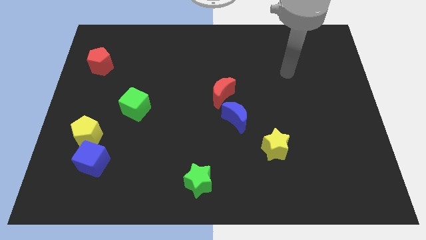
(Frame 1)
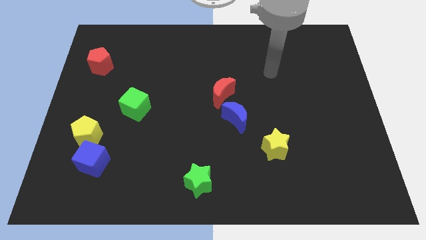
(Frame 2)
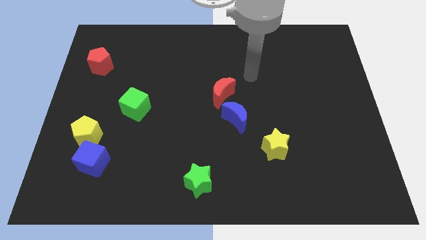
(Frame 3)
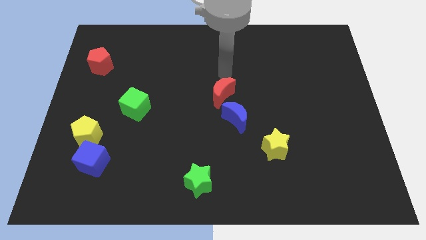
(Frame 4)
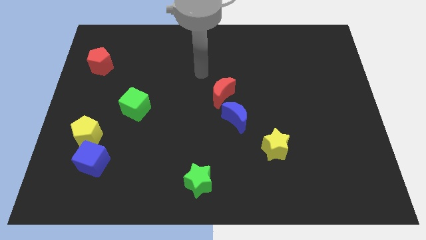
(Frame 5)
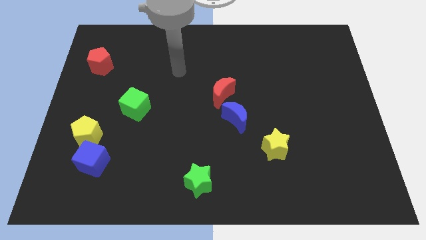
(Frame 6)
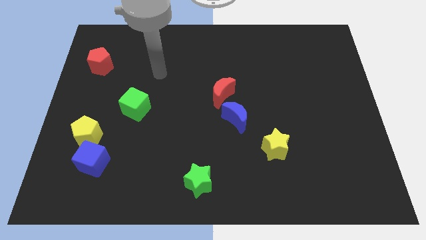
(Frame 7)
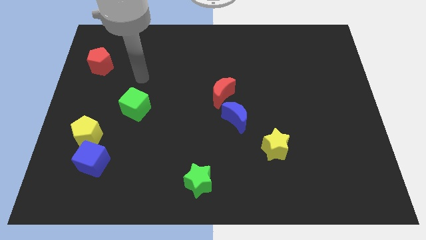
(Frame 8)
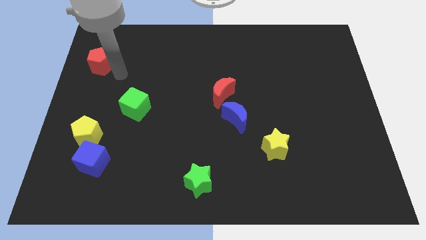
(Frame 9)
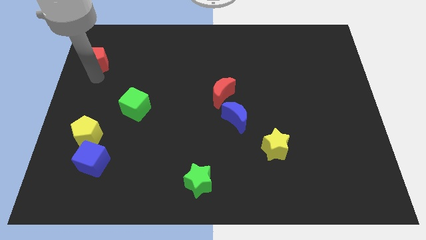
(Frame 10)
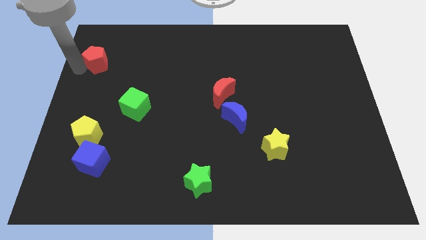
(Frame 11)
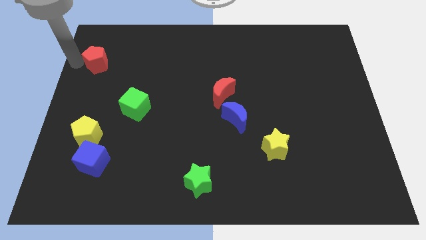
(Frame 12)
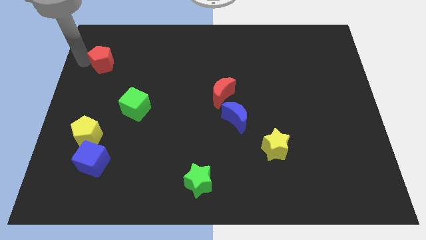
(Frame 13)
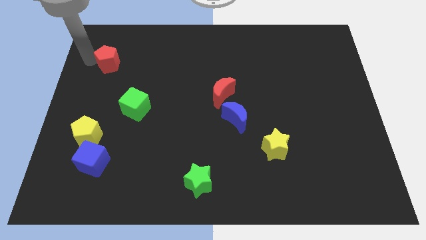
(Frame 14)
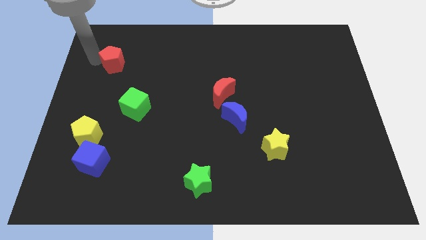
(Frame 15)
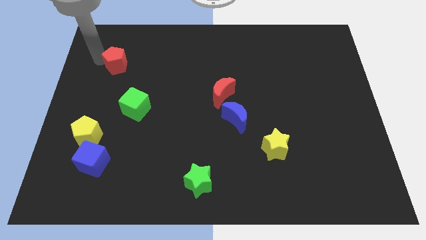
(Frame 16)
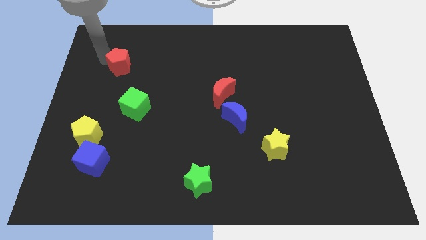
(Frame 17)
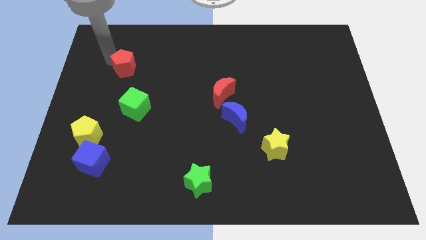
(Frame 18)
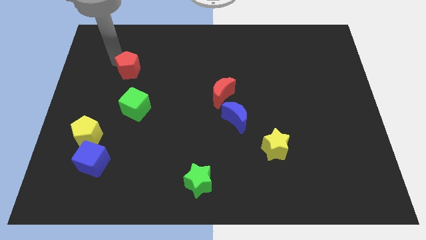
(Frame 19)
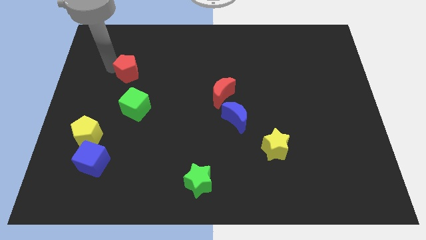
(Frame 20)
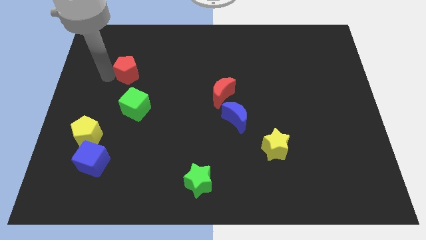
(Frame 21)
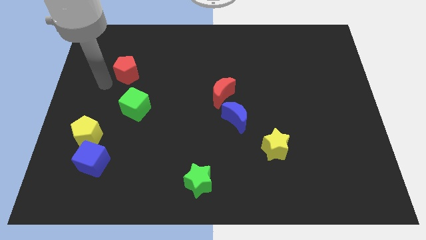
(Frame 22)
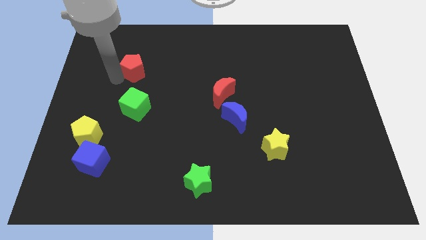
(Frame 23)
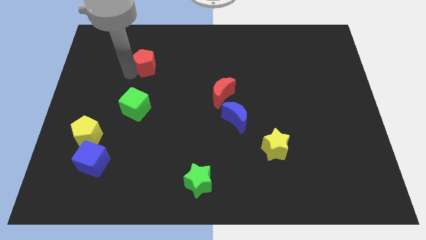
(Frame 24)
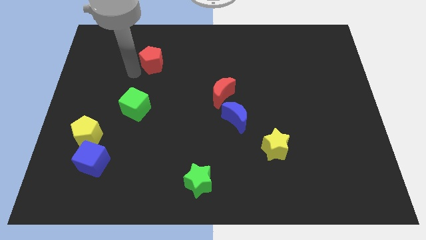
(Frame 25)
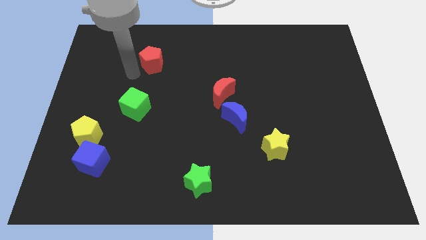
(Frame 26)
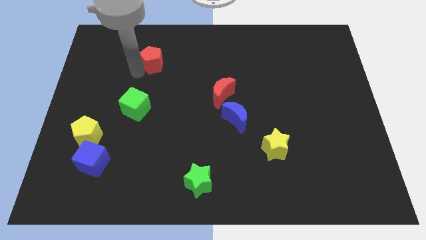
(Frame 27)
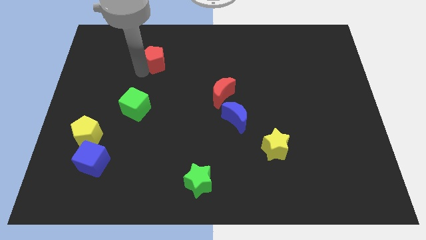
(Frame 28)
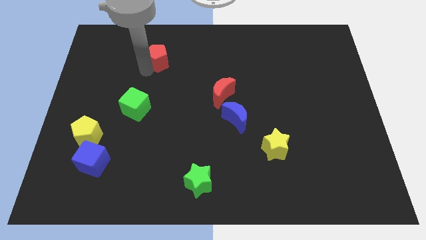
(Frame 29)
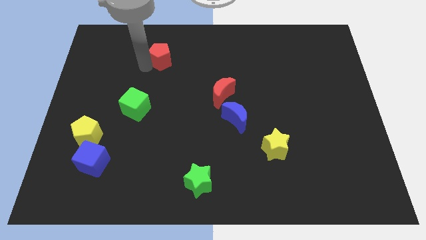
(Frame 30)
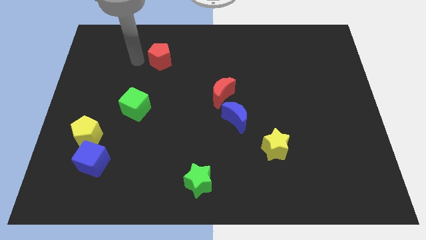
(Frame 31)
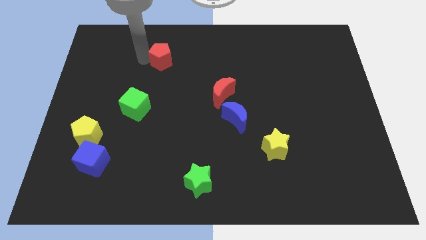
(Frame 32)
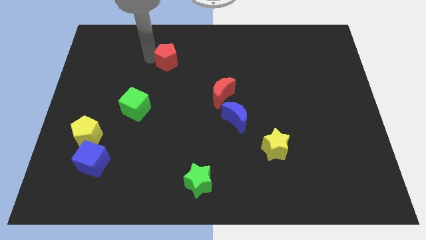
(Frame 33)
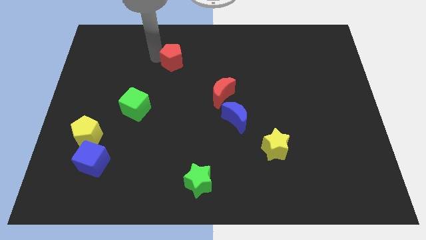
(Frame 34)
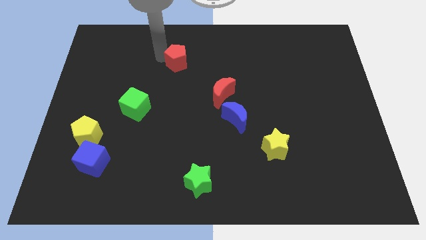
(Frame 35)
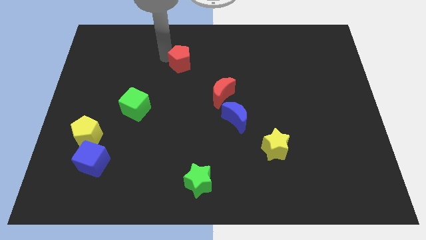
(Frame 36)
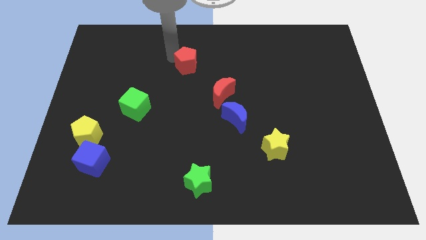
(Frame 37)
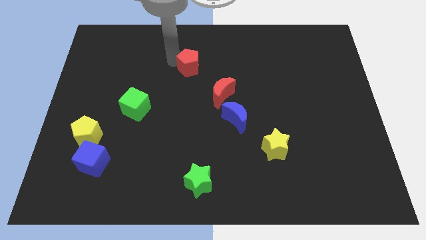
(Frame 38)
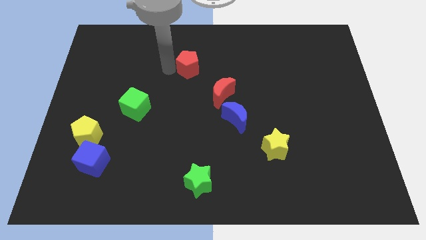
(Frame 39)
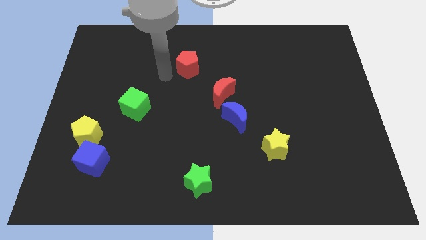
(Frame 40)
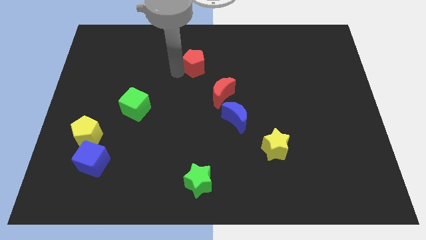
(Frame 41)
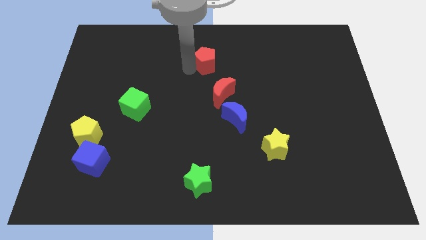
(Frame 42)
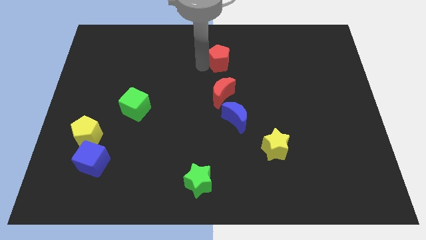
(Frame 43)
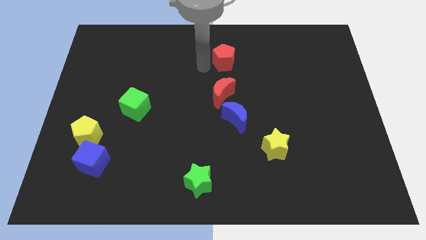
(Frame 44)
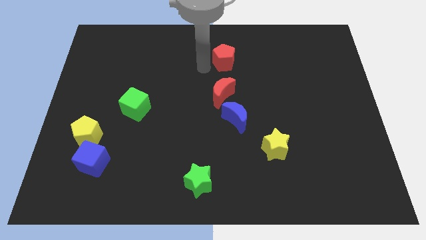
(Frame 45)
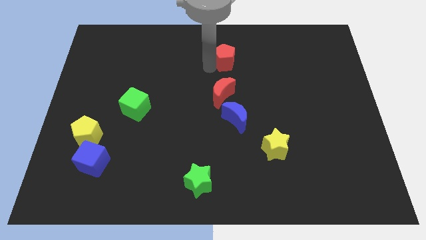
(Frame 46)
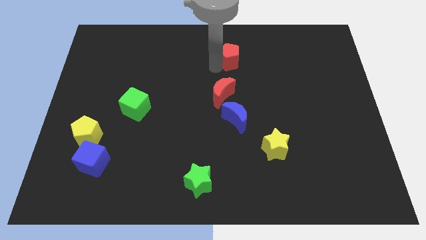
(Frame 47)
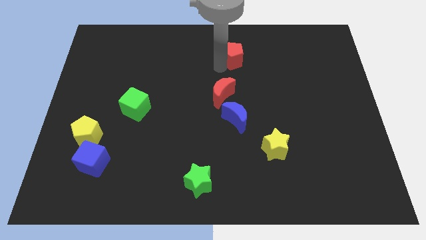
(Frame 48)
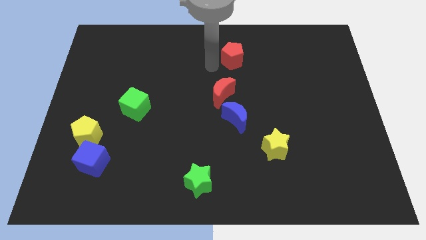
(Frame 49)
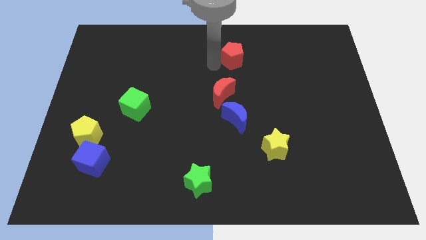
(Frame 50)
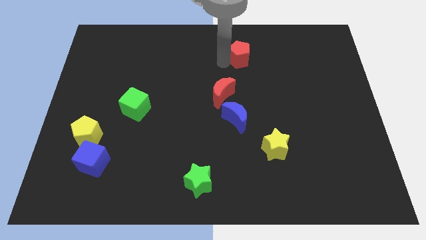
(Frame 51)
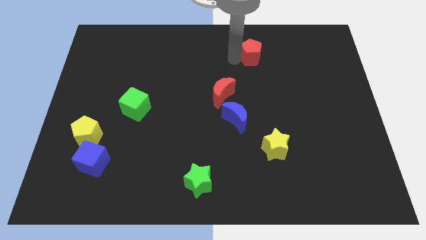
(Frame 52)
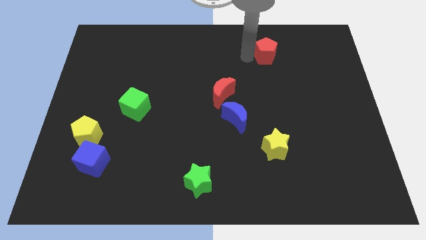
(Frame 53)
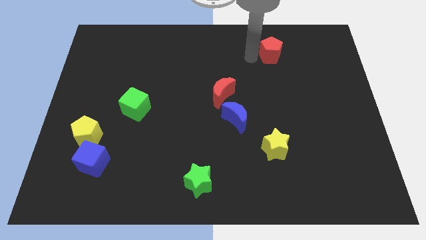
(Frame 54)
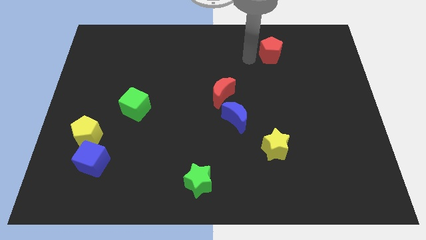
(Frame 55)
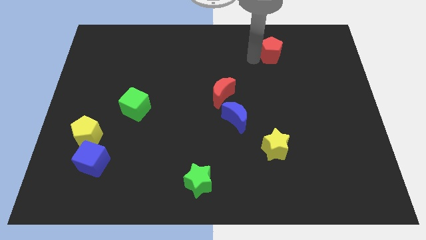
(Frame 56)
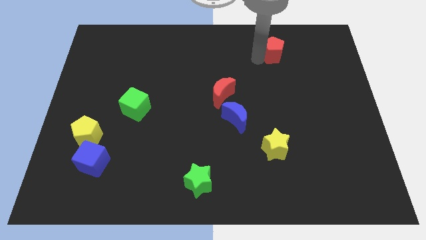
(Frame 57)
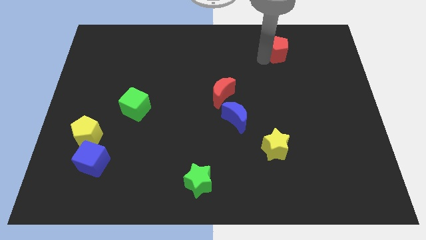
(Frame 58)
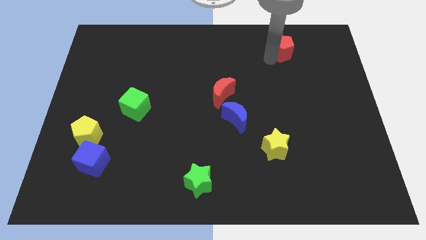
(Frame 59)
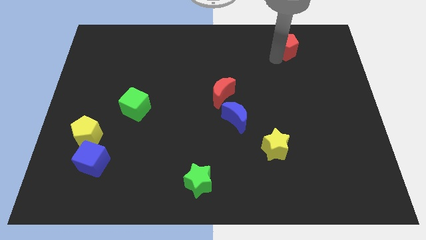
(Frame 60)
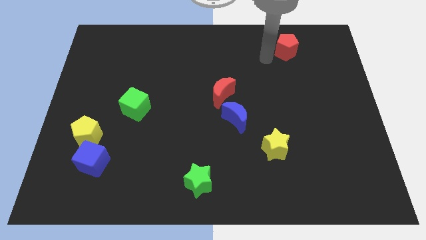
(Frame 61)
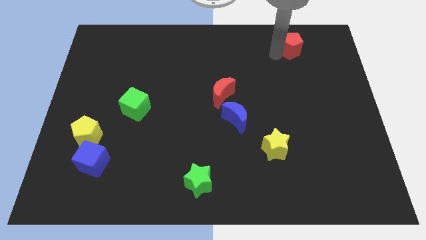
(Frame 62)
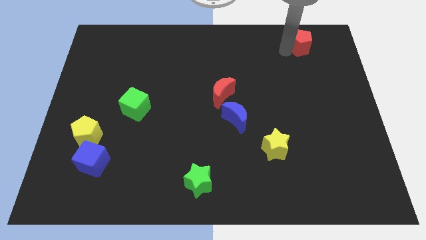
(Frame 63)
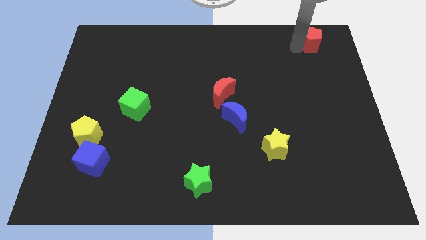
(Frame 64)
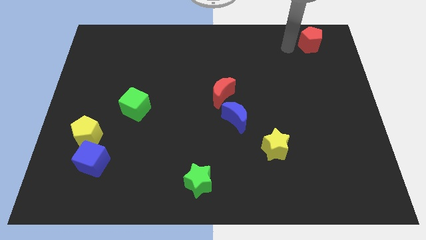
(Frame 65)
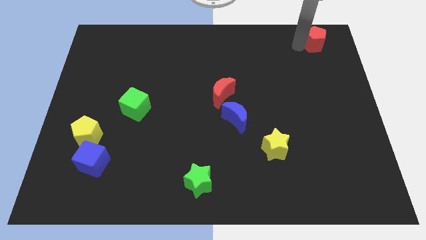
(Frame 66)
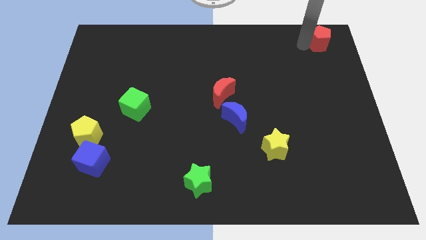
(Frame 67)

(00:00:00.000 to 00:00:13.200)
slide the red pentagon to the top right of the board
